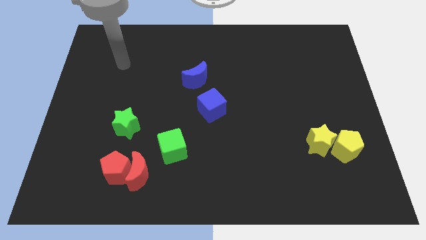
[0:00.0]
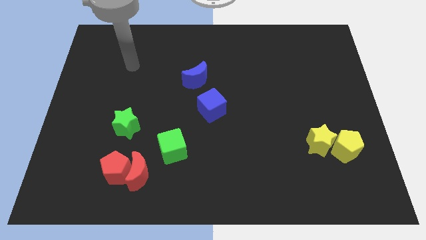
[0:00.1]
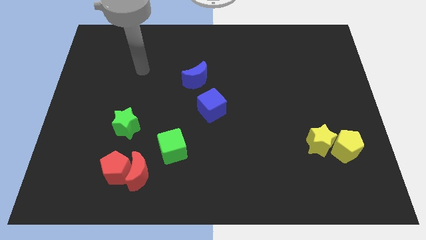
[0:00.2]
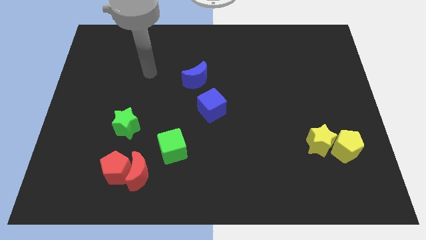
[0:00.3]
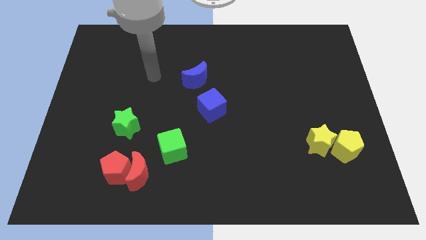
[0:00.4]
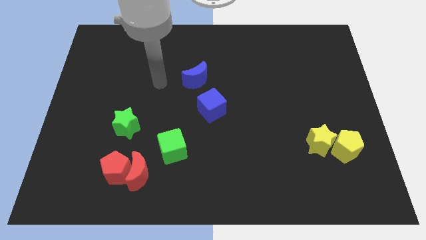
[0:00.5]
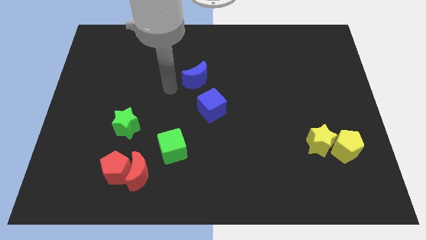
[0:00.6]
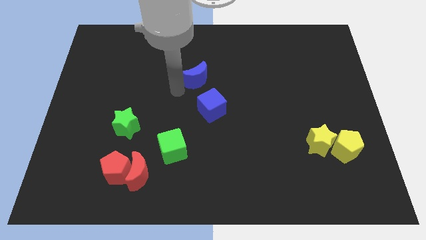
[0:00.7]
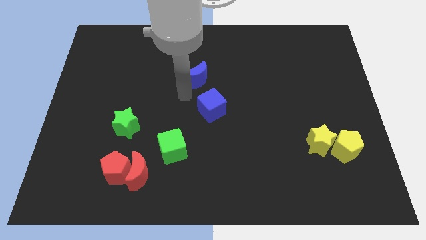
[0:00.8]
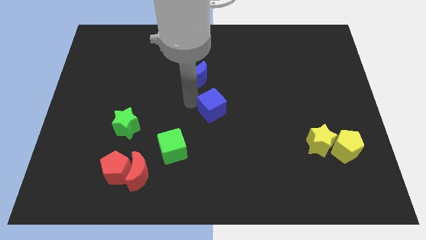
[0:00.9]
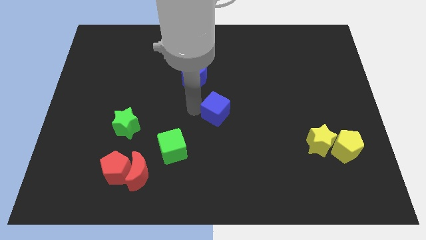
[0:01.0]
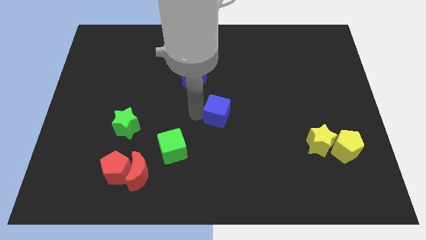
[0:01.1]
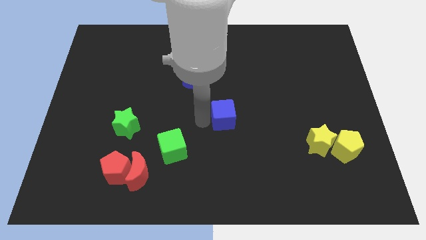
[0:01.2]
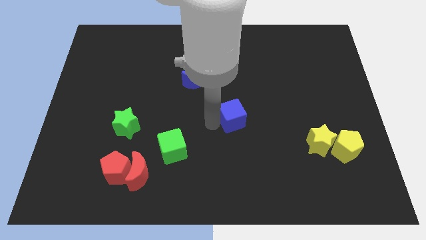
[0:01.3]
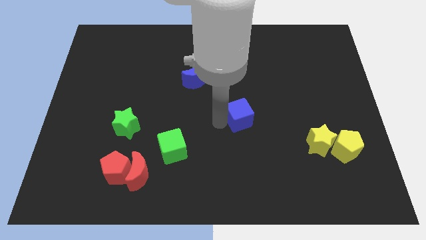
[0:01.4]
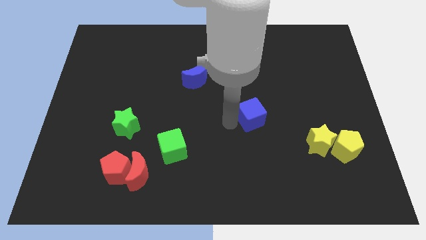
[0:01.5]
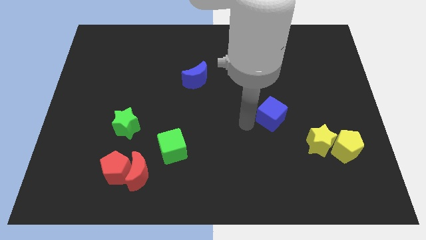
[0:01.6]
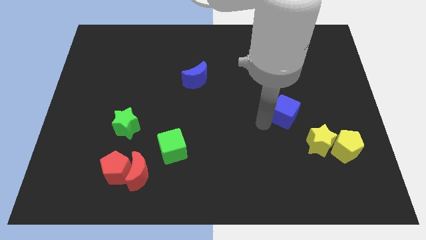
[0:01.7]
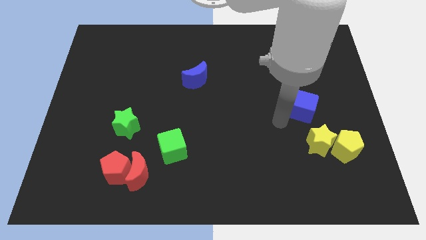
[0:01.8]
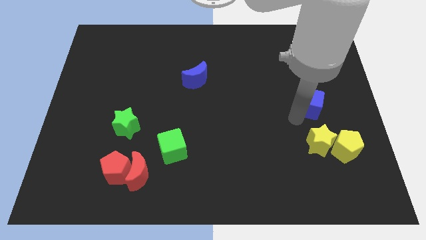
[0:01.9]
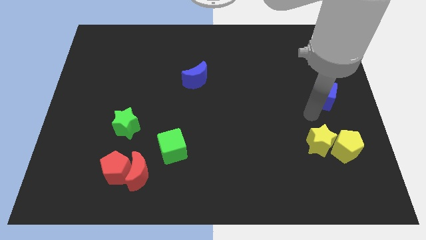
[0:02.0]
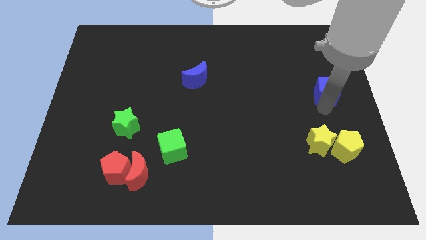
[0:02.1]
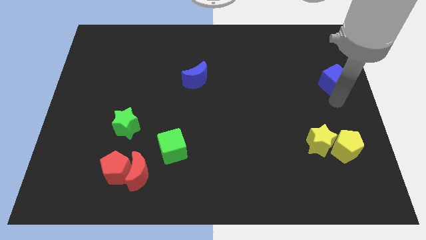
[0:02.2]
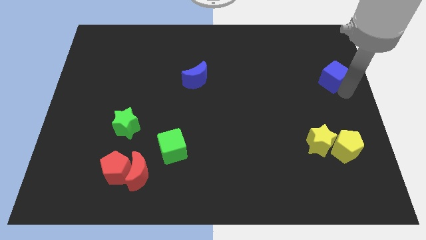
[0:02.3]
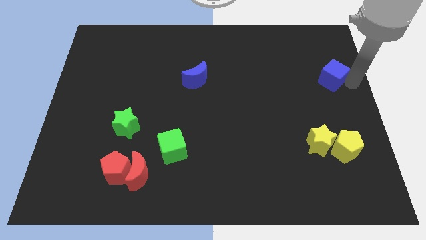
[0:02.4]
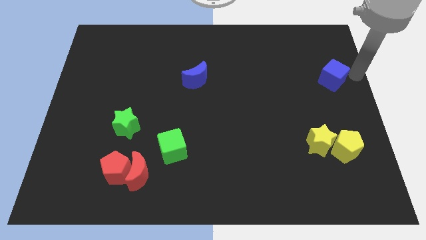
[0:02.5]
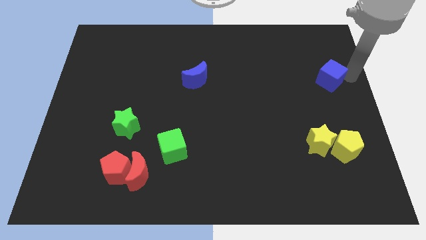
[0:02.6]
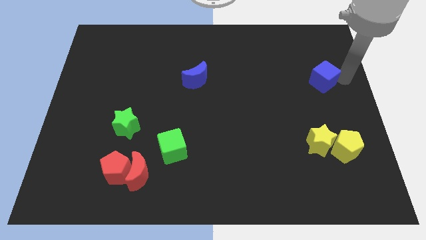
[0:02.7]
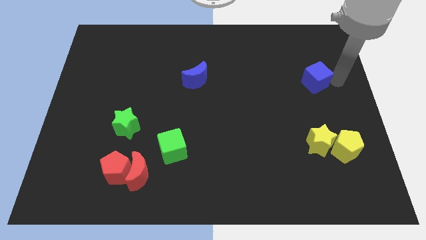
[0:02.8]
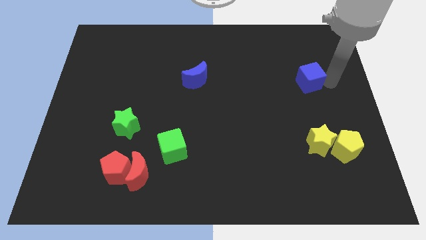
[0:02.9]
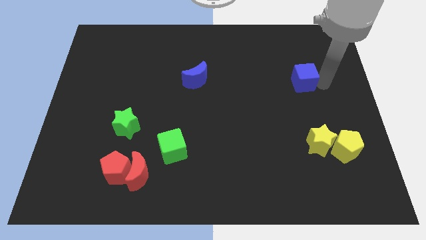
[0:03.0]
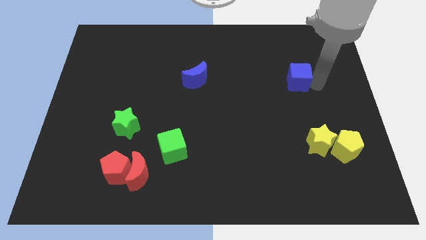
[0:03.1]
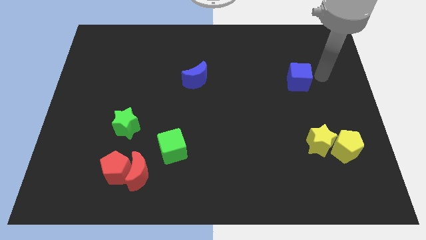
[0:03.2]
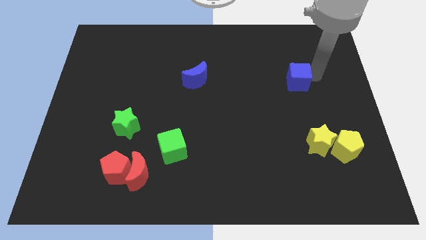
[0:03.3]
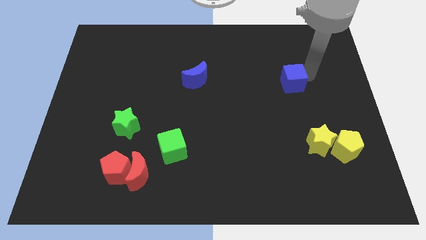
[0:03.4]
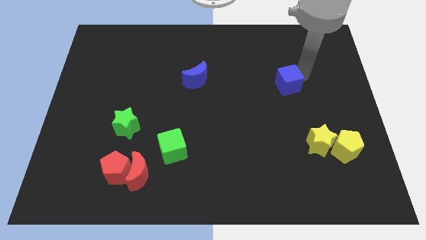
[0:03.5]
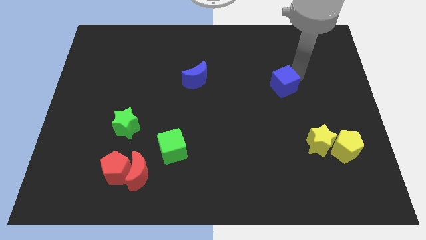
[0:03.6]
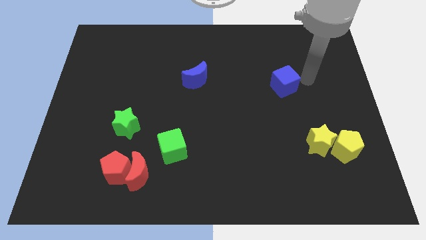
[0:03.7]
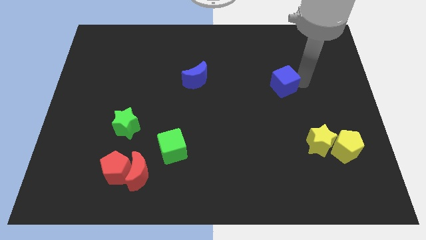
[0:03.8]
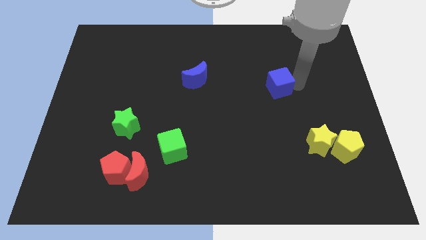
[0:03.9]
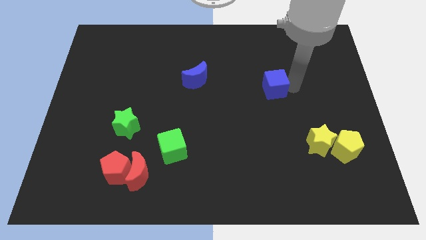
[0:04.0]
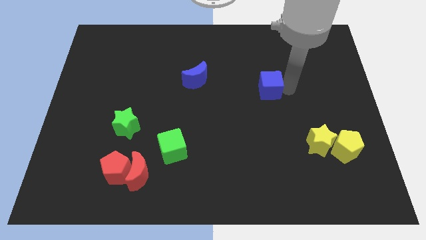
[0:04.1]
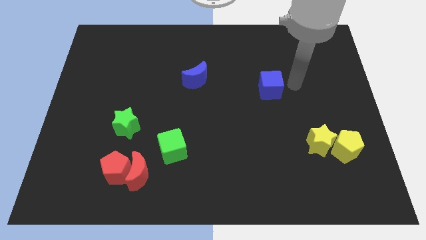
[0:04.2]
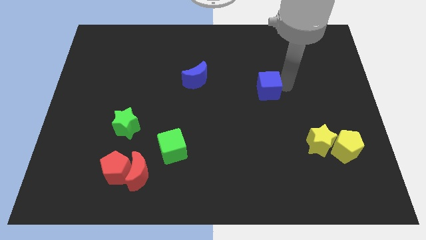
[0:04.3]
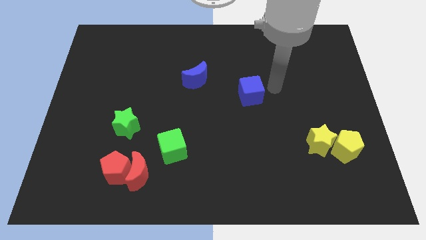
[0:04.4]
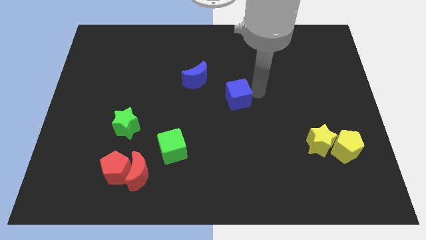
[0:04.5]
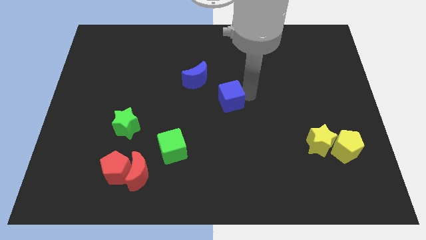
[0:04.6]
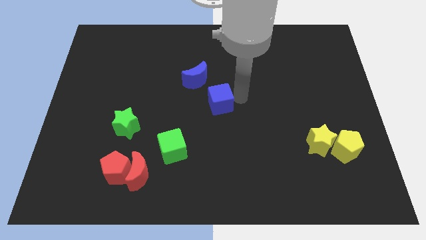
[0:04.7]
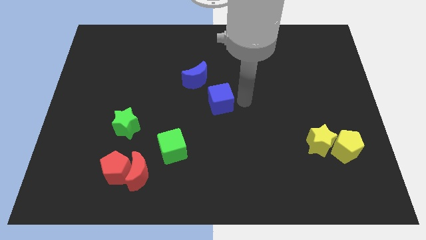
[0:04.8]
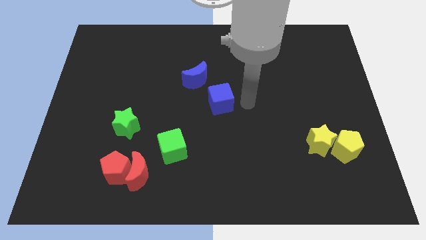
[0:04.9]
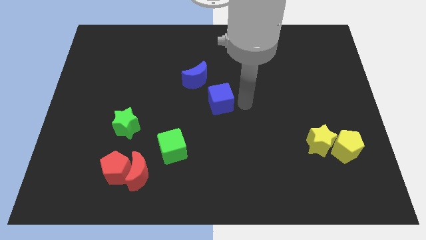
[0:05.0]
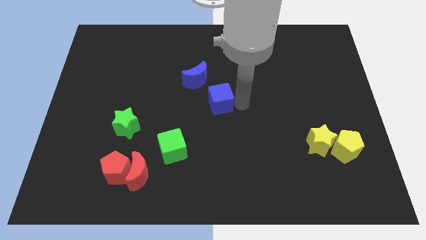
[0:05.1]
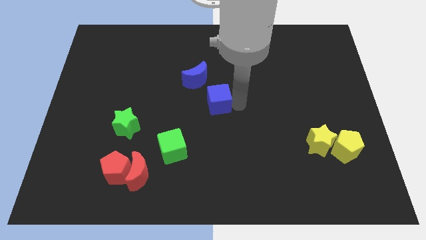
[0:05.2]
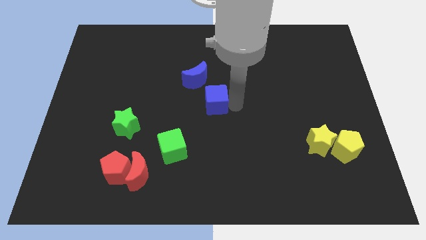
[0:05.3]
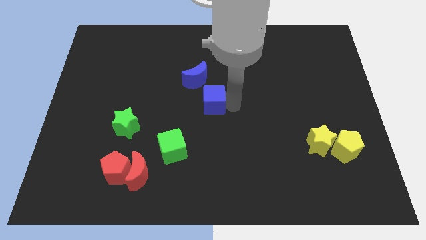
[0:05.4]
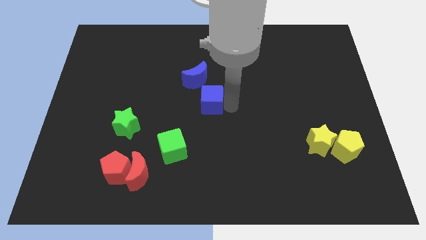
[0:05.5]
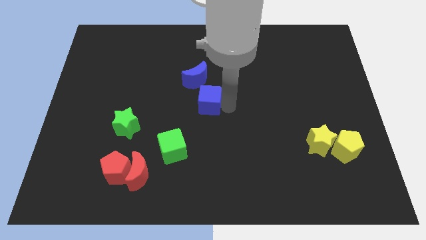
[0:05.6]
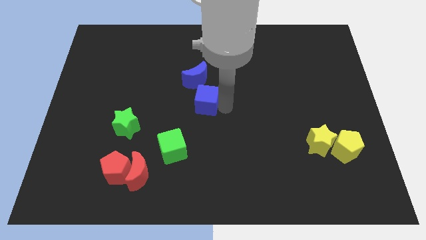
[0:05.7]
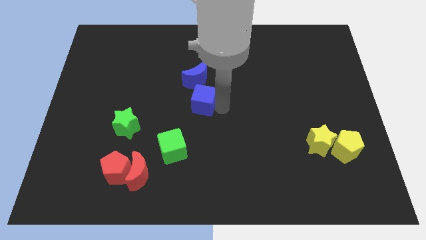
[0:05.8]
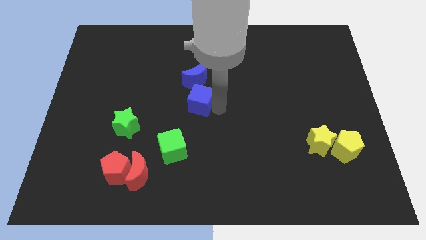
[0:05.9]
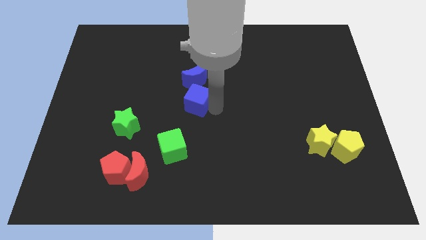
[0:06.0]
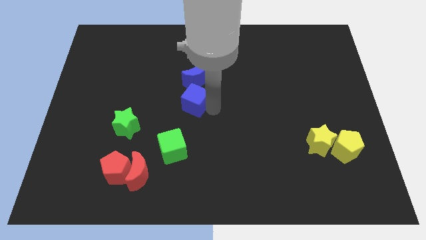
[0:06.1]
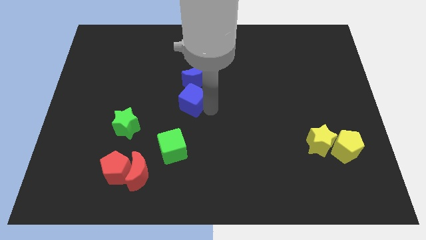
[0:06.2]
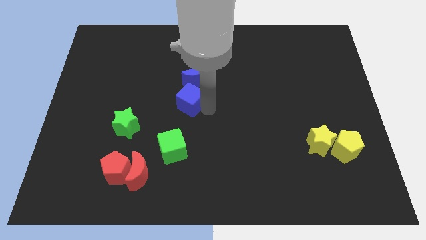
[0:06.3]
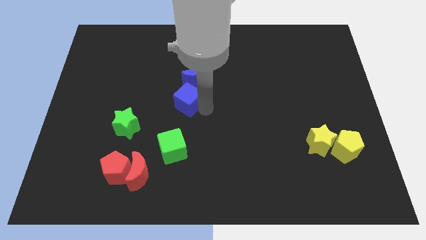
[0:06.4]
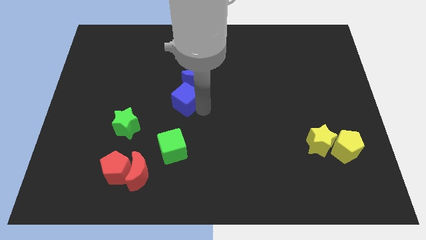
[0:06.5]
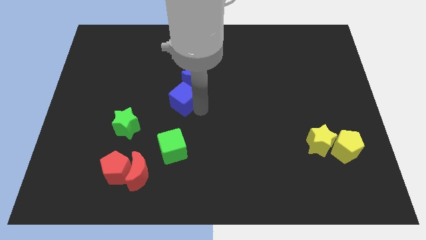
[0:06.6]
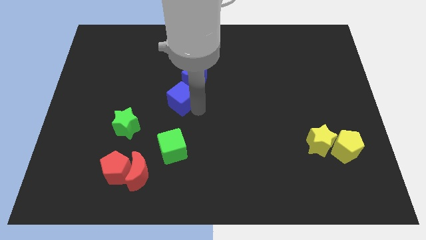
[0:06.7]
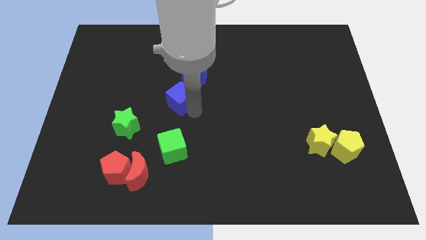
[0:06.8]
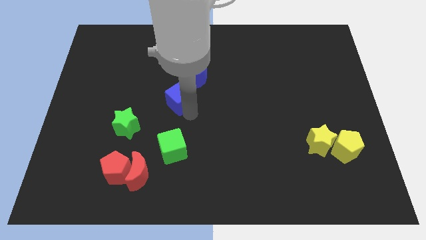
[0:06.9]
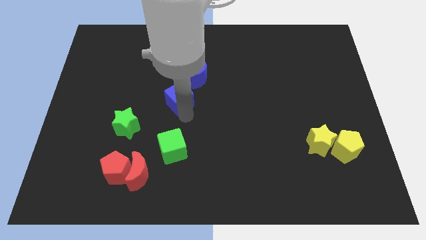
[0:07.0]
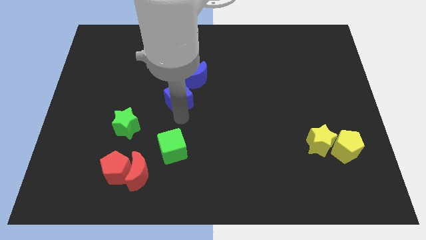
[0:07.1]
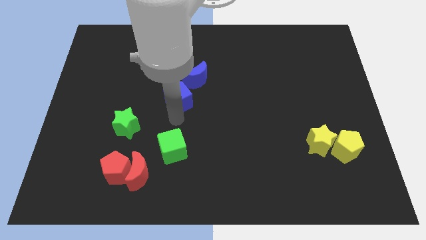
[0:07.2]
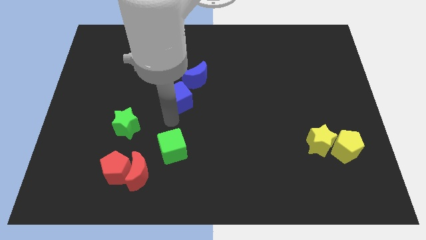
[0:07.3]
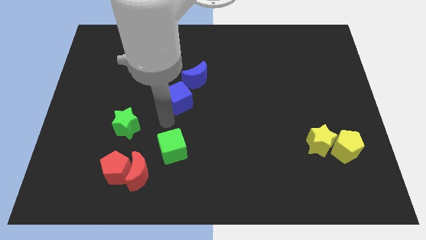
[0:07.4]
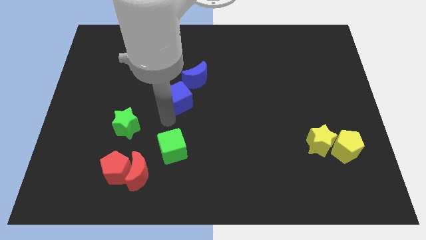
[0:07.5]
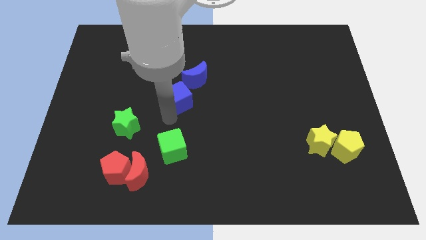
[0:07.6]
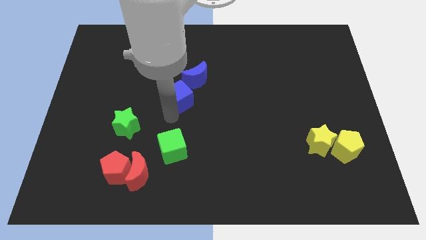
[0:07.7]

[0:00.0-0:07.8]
push the blue cube diagonally up and left a little

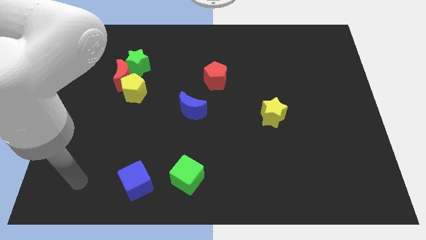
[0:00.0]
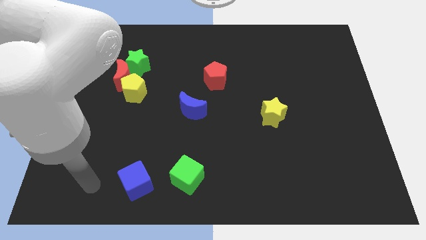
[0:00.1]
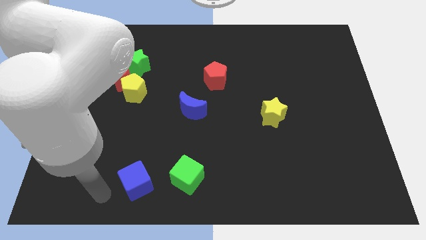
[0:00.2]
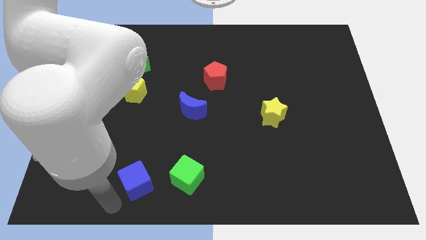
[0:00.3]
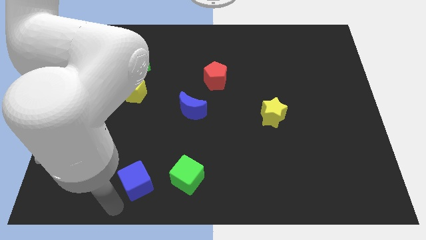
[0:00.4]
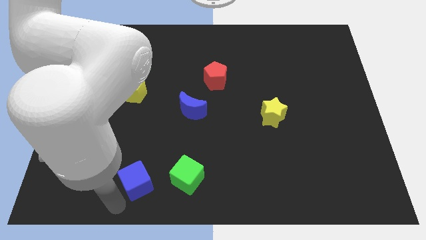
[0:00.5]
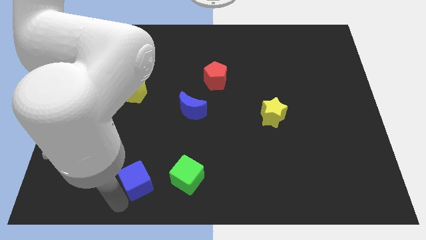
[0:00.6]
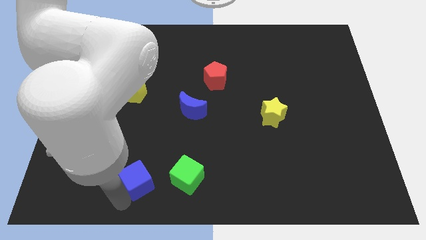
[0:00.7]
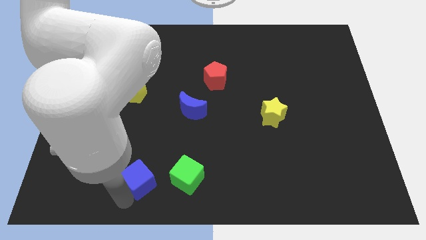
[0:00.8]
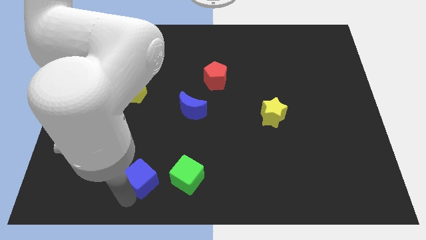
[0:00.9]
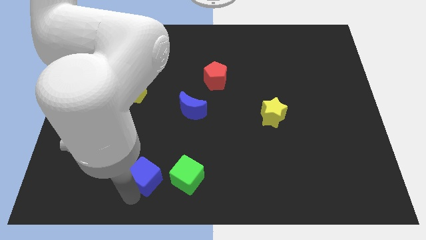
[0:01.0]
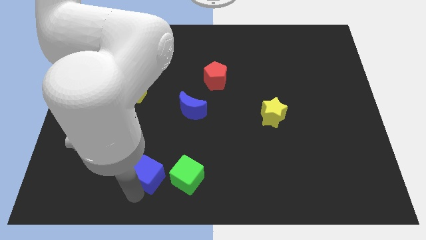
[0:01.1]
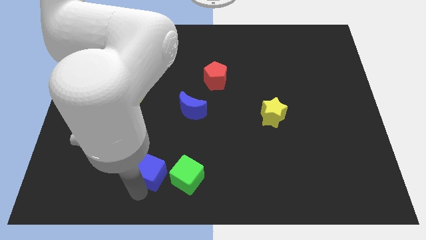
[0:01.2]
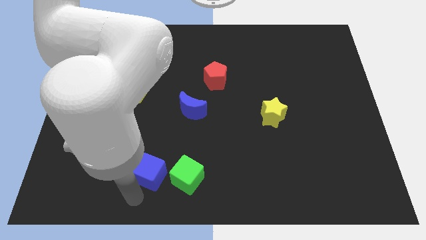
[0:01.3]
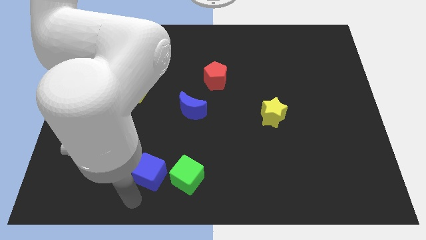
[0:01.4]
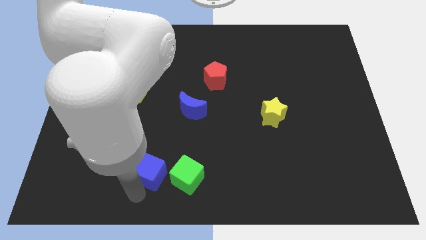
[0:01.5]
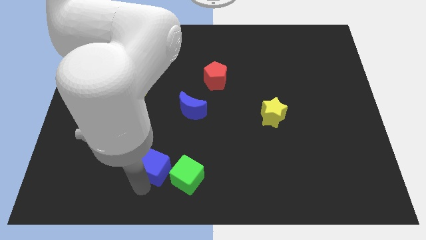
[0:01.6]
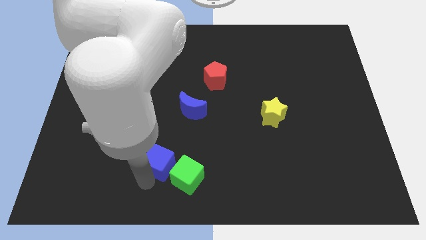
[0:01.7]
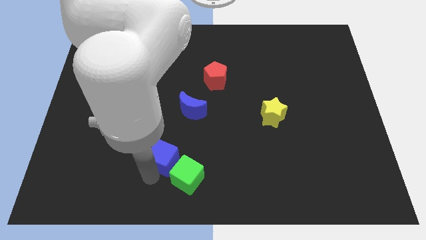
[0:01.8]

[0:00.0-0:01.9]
slide the blue cube slightly up and to the right diagonally
